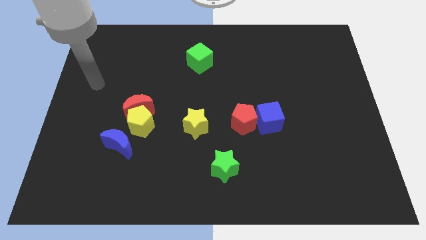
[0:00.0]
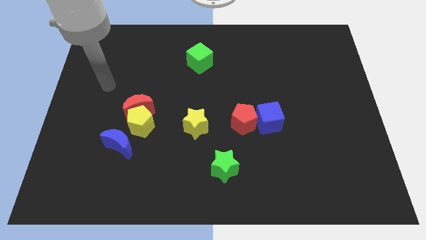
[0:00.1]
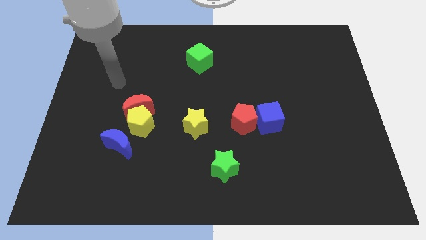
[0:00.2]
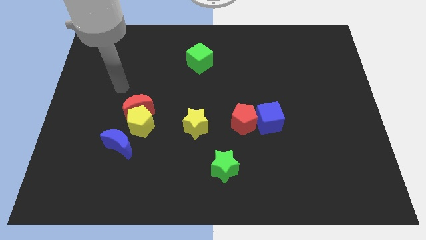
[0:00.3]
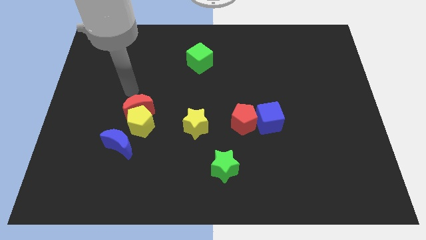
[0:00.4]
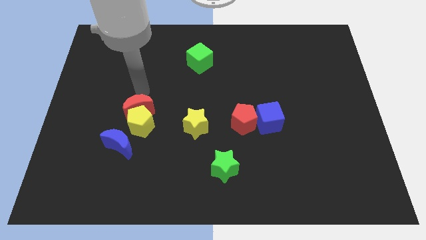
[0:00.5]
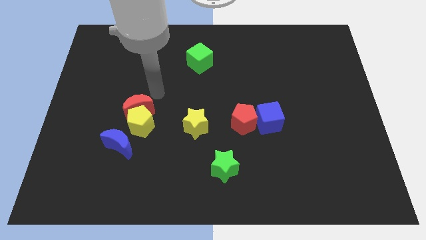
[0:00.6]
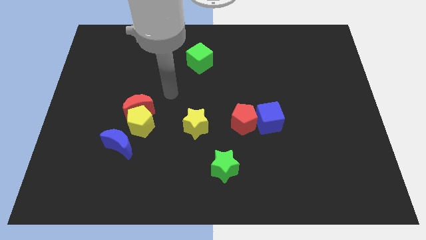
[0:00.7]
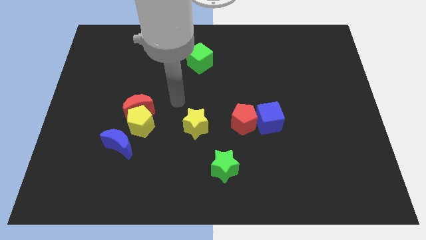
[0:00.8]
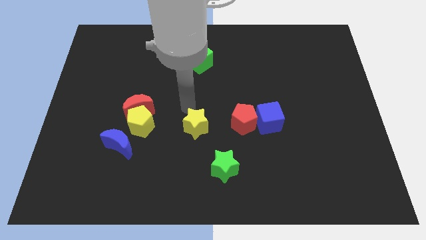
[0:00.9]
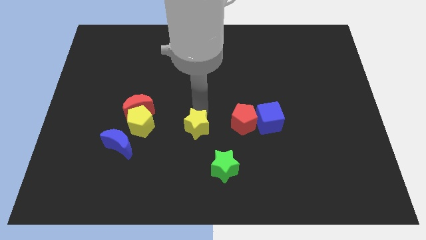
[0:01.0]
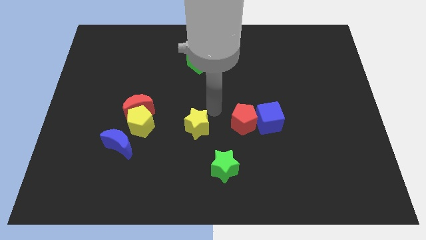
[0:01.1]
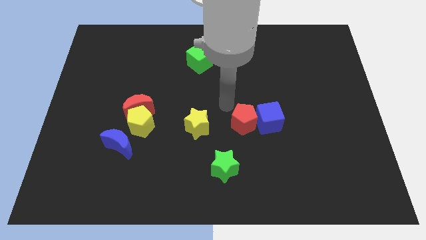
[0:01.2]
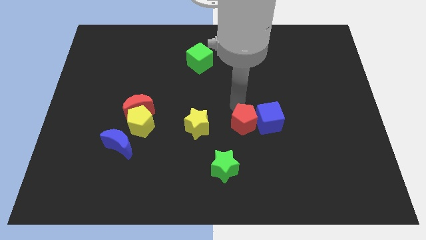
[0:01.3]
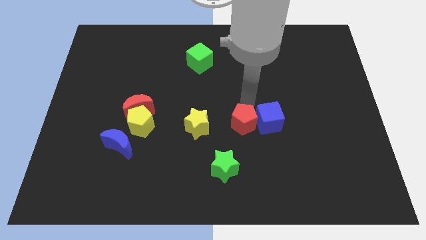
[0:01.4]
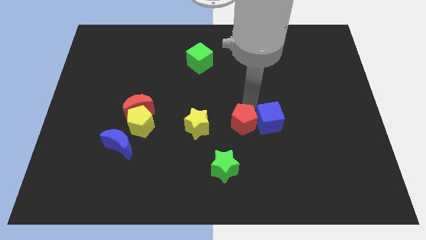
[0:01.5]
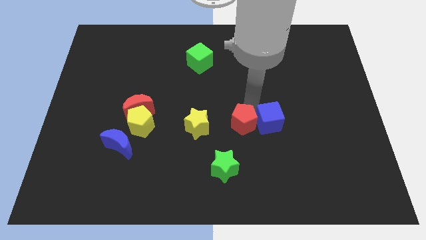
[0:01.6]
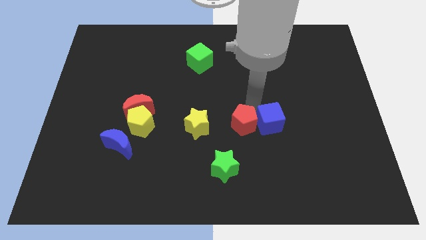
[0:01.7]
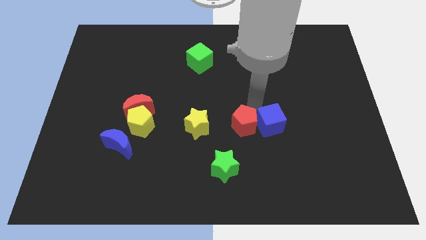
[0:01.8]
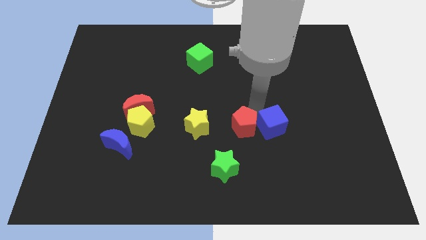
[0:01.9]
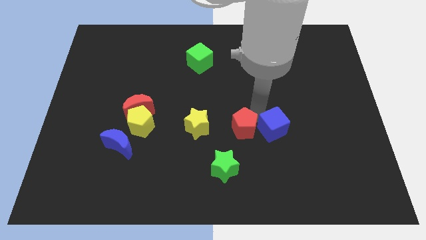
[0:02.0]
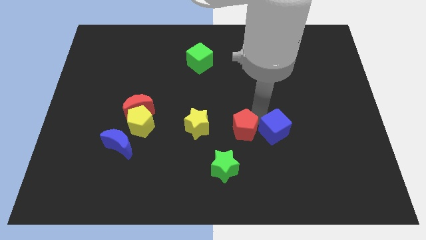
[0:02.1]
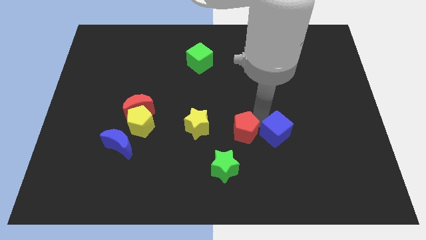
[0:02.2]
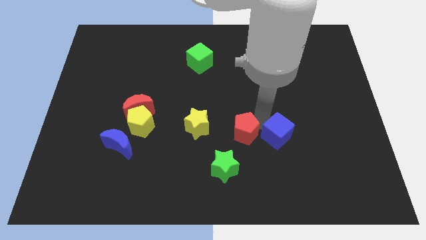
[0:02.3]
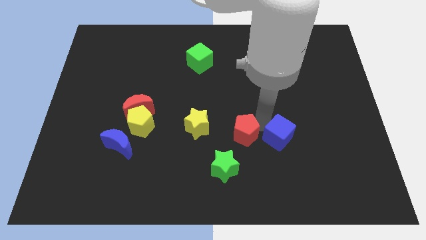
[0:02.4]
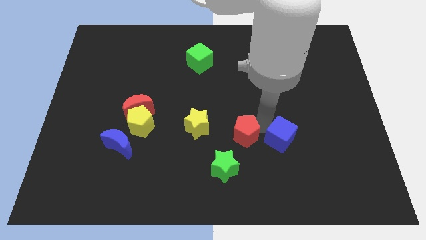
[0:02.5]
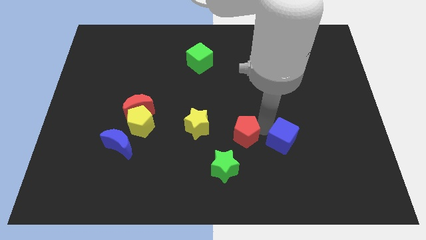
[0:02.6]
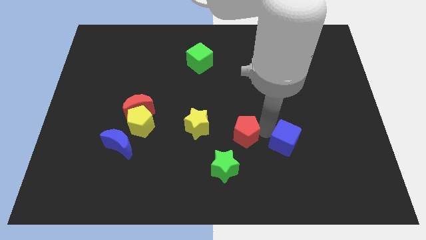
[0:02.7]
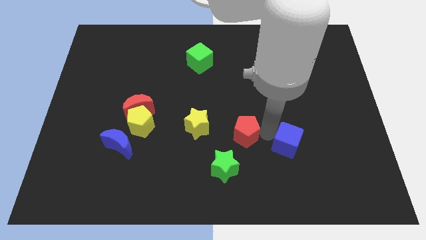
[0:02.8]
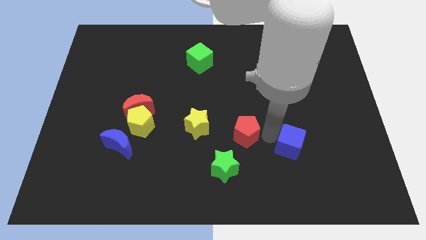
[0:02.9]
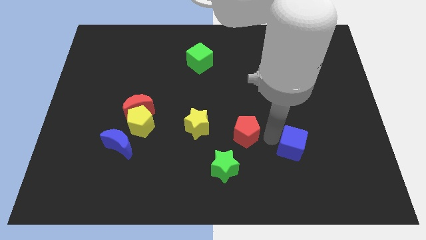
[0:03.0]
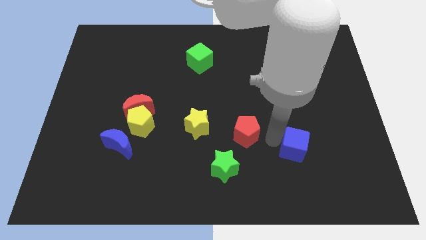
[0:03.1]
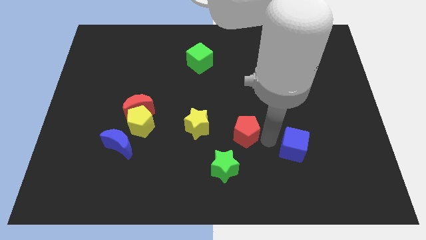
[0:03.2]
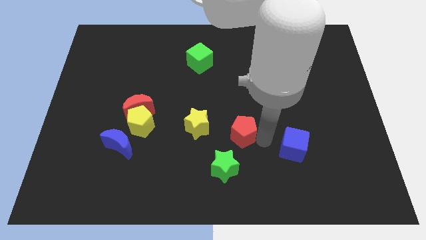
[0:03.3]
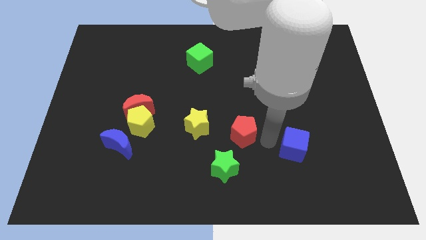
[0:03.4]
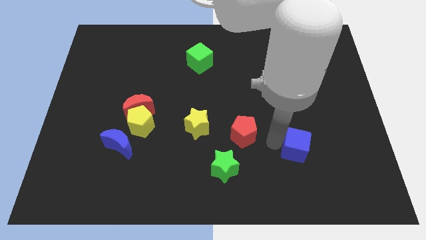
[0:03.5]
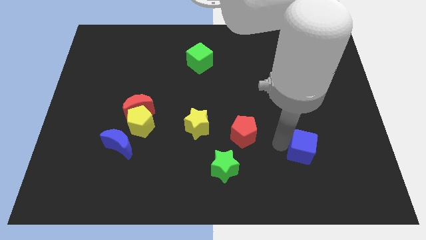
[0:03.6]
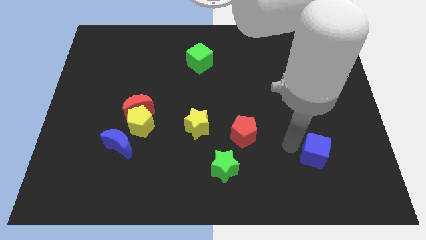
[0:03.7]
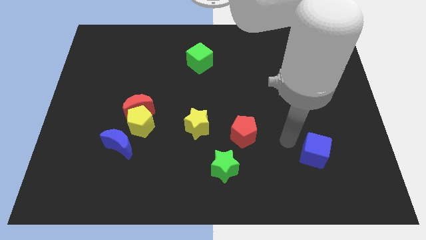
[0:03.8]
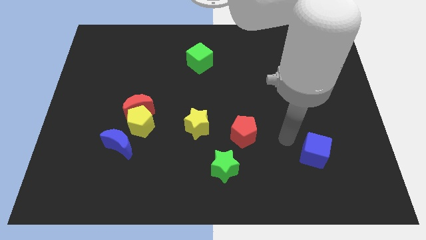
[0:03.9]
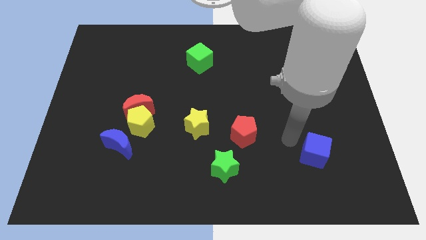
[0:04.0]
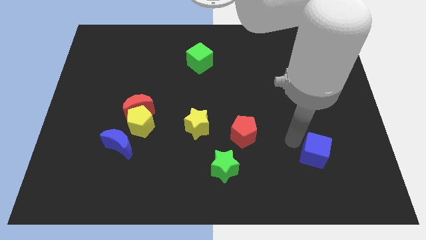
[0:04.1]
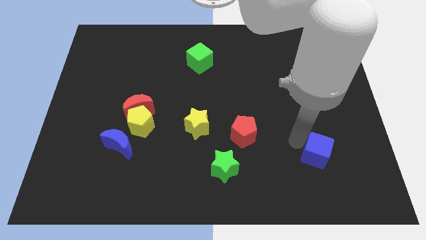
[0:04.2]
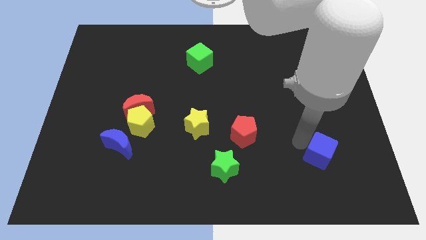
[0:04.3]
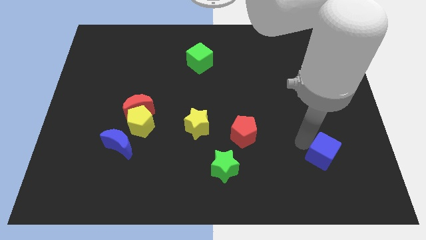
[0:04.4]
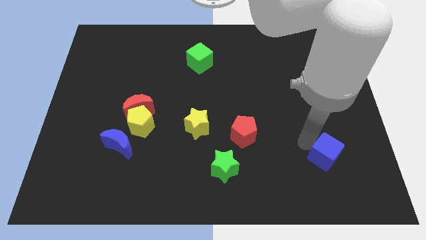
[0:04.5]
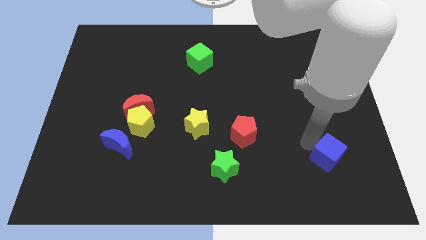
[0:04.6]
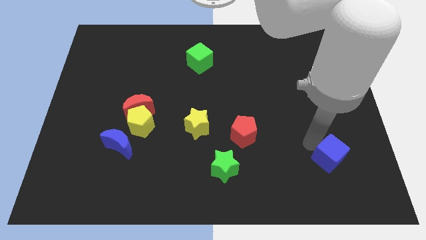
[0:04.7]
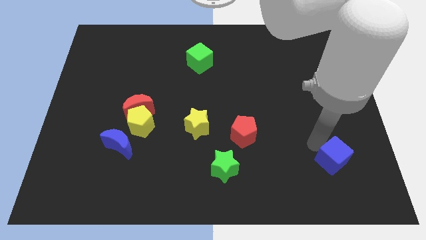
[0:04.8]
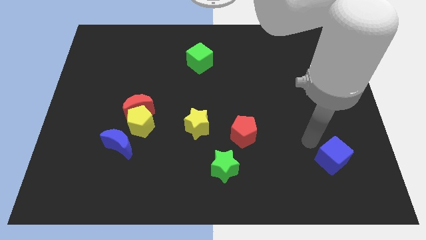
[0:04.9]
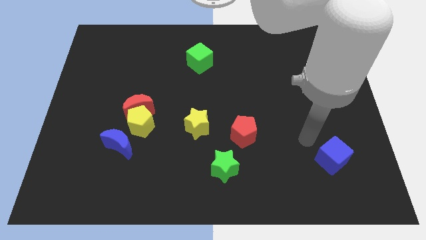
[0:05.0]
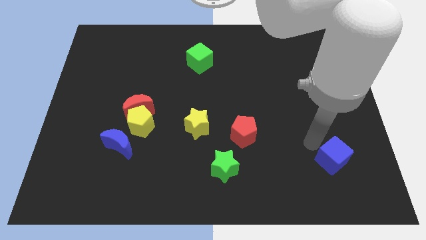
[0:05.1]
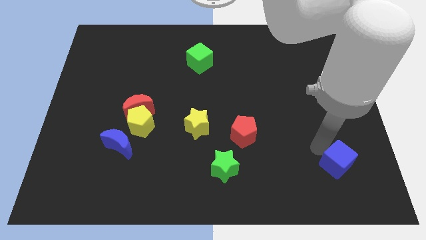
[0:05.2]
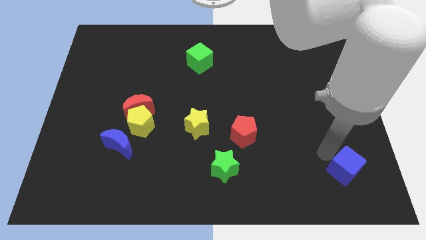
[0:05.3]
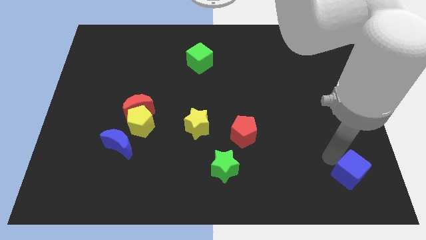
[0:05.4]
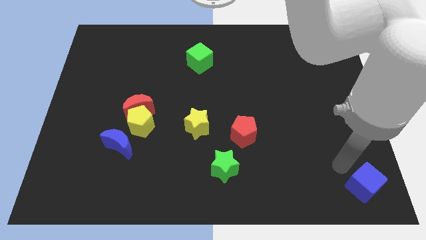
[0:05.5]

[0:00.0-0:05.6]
slide the blue cube to the lower right corner

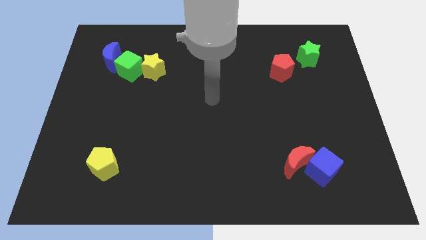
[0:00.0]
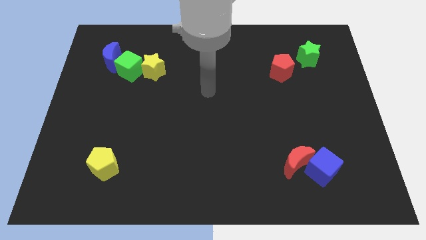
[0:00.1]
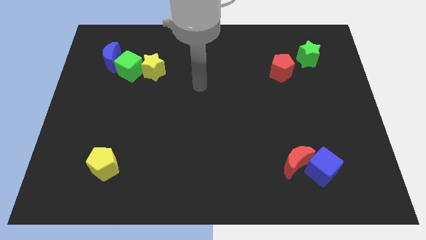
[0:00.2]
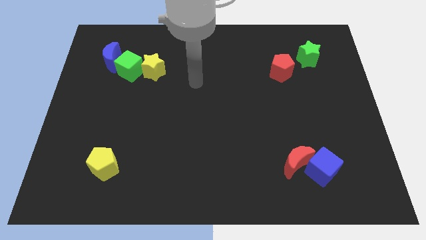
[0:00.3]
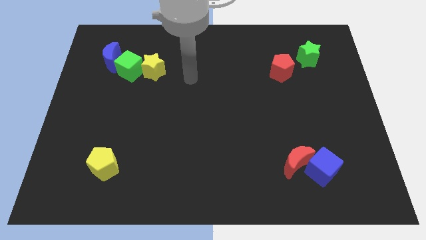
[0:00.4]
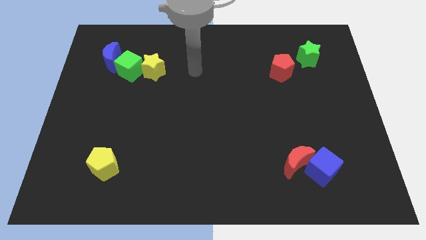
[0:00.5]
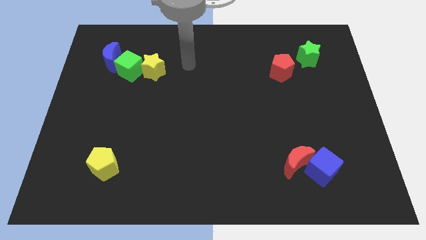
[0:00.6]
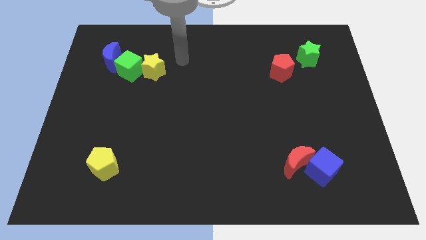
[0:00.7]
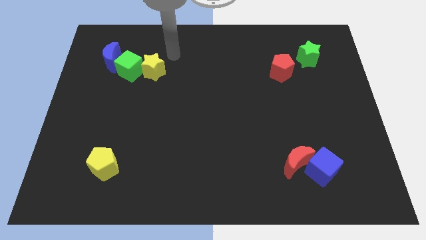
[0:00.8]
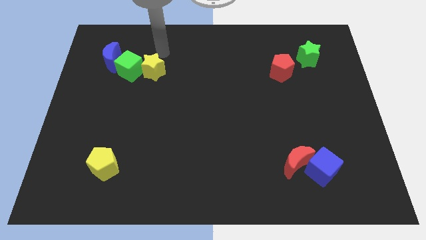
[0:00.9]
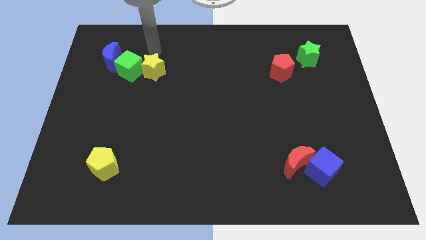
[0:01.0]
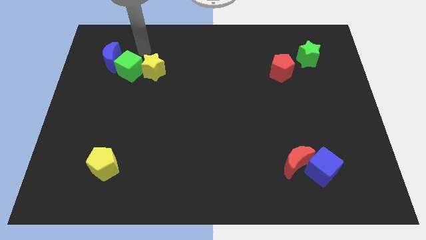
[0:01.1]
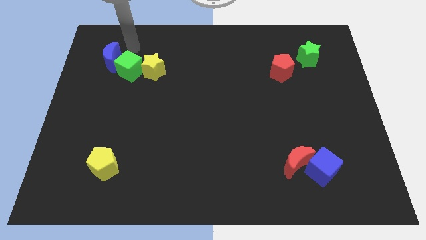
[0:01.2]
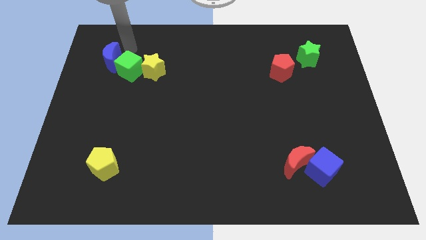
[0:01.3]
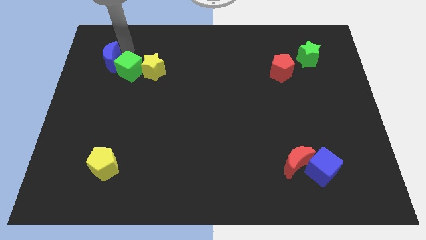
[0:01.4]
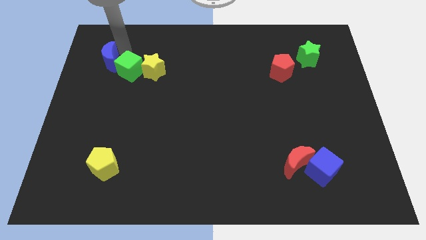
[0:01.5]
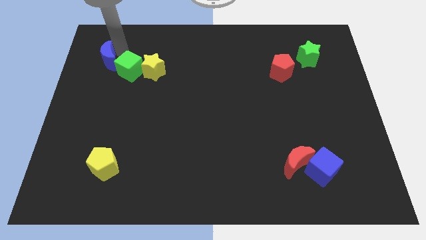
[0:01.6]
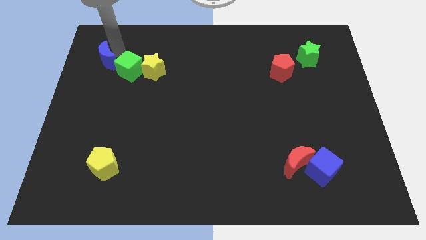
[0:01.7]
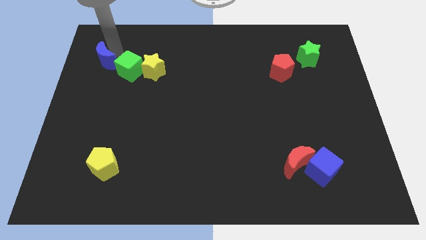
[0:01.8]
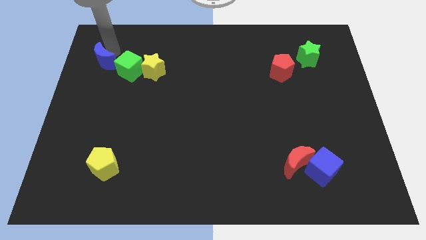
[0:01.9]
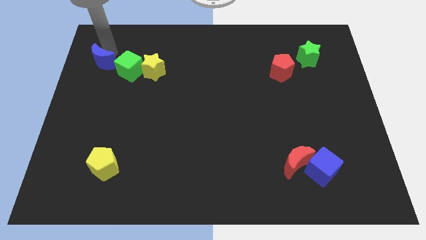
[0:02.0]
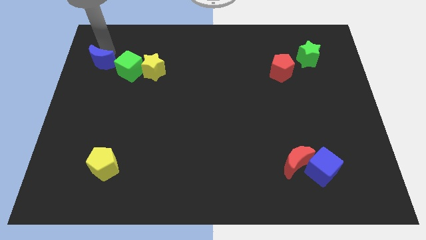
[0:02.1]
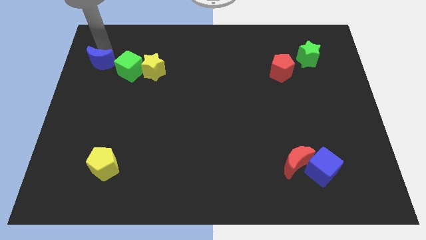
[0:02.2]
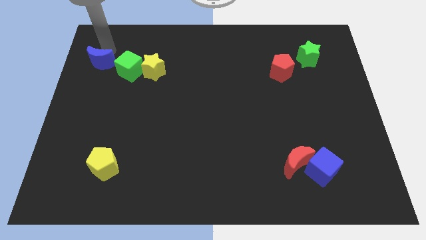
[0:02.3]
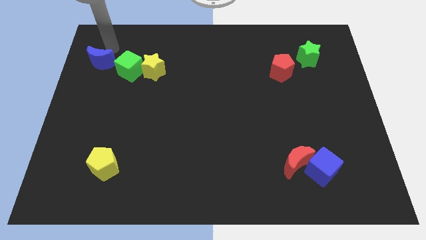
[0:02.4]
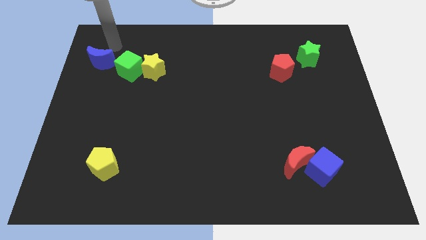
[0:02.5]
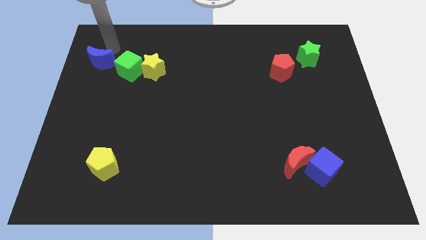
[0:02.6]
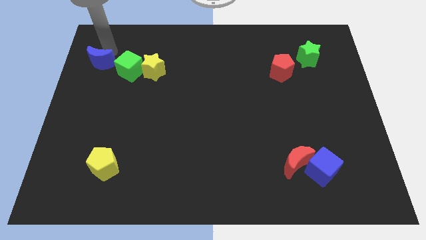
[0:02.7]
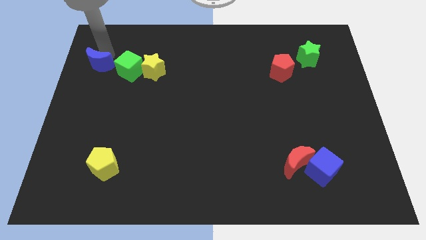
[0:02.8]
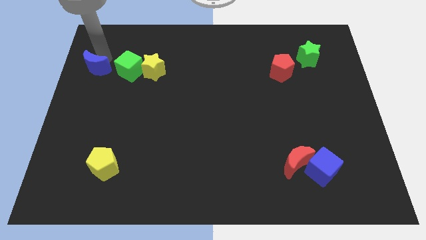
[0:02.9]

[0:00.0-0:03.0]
slide the blue moon to the center left
